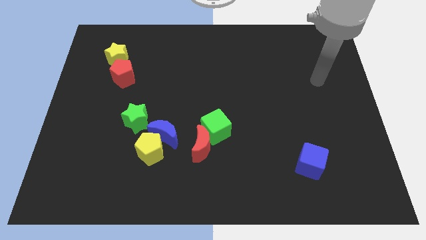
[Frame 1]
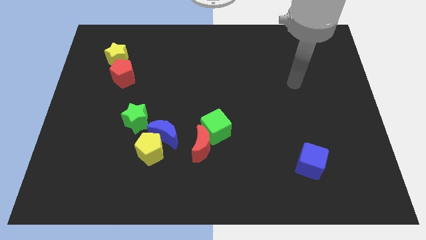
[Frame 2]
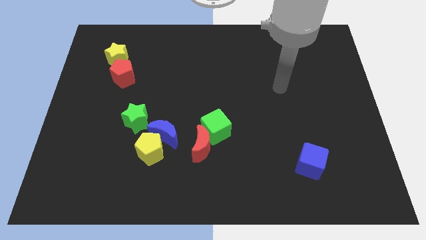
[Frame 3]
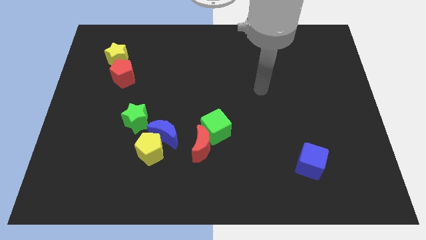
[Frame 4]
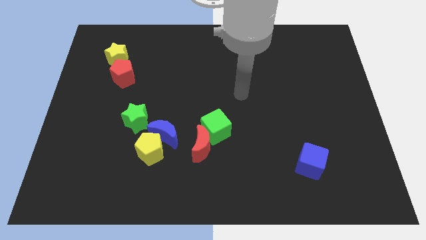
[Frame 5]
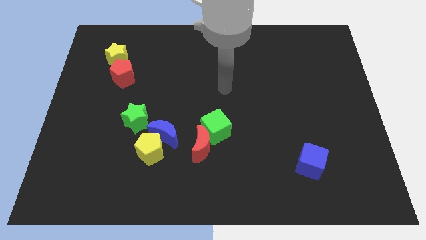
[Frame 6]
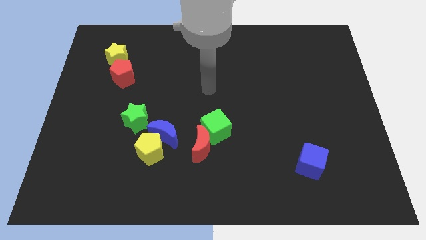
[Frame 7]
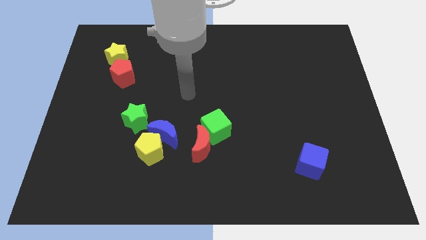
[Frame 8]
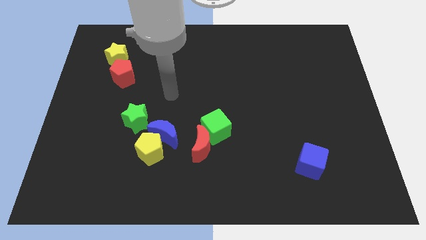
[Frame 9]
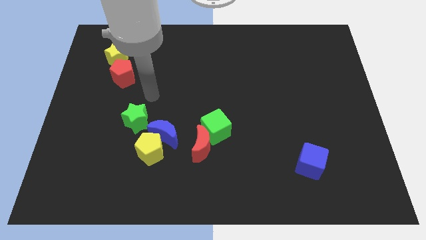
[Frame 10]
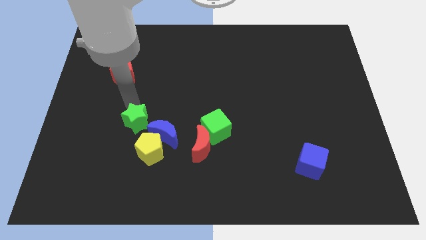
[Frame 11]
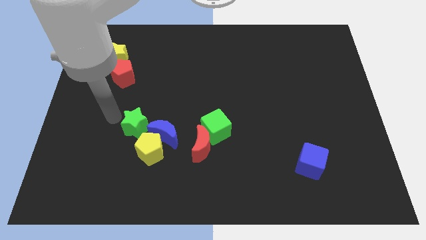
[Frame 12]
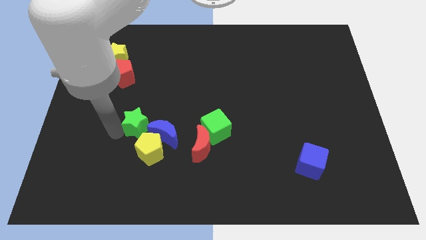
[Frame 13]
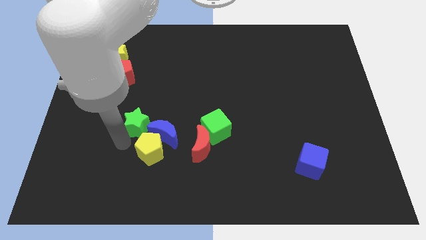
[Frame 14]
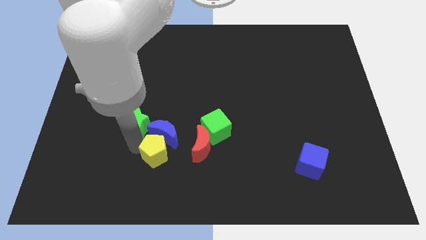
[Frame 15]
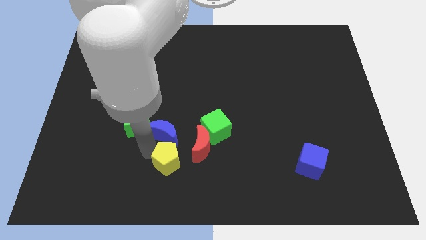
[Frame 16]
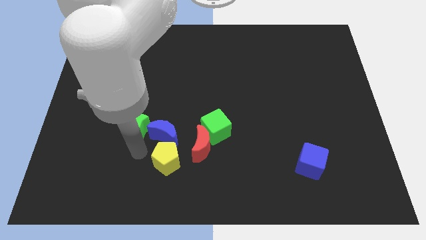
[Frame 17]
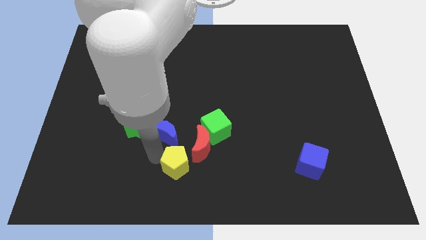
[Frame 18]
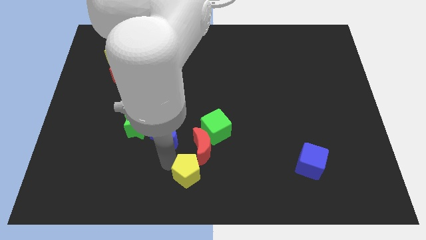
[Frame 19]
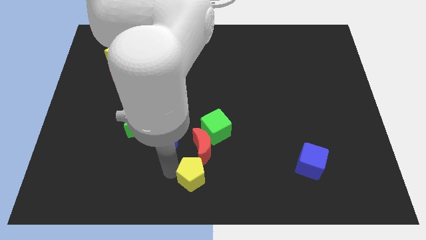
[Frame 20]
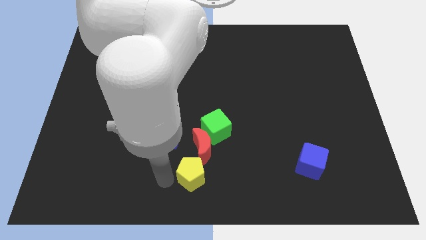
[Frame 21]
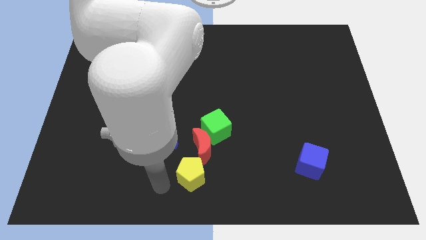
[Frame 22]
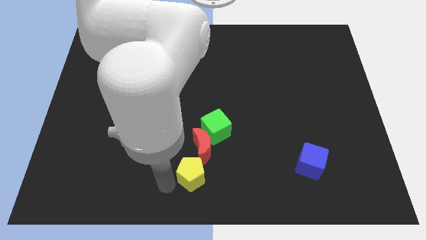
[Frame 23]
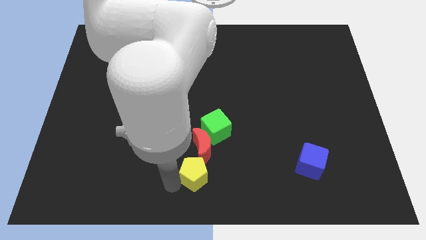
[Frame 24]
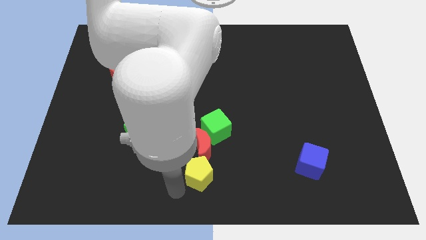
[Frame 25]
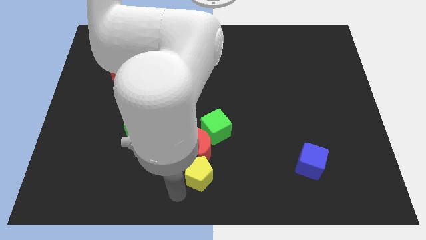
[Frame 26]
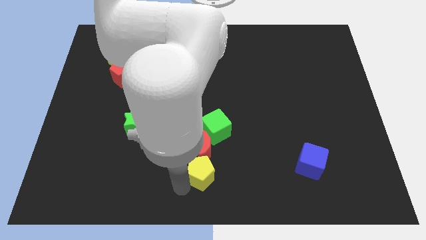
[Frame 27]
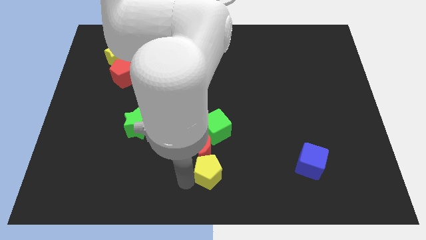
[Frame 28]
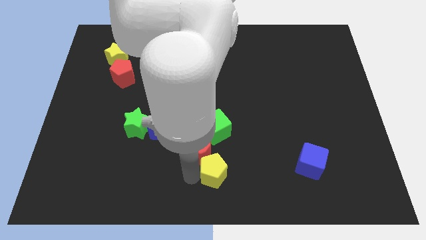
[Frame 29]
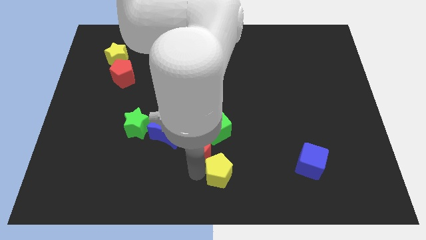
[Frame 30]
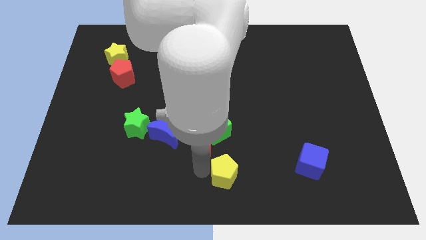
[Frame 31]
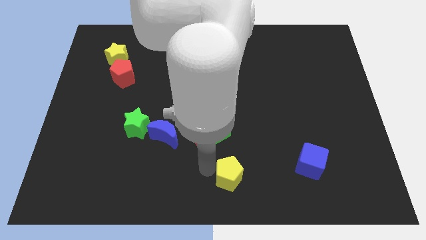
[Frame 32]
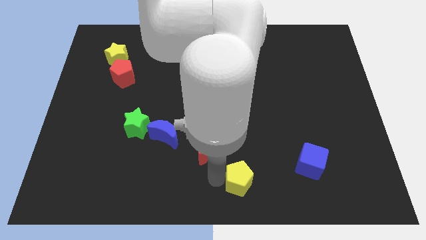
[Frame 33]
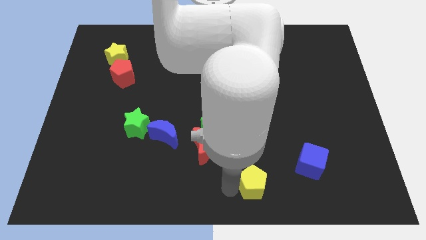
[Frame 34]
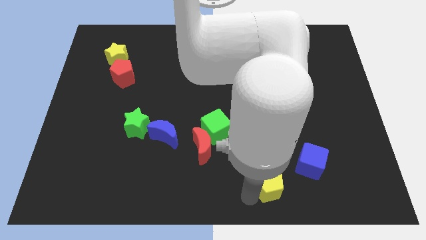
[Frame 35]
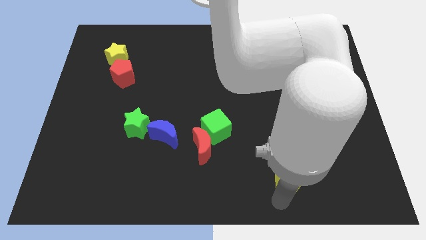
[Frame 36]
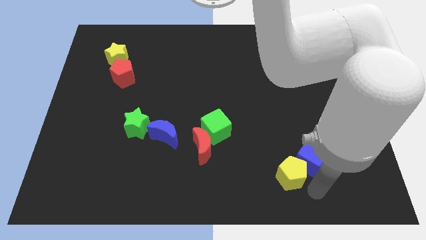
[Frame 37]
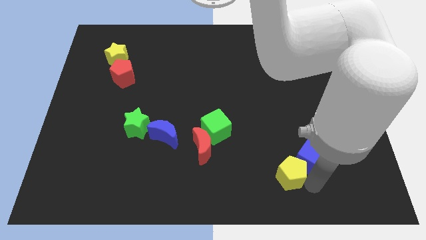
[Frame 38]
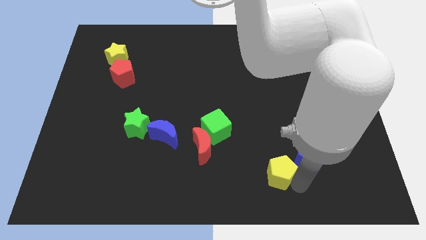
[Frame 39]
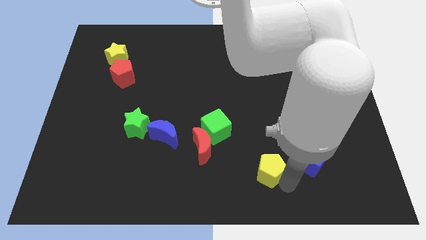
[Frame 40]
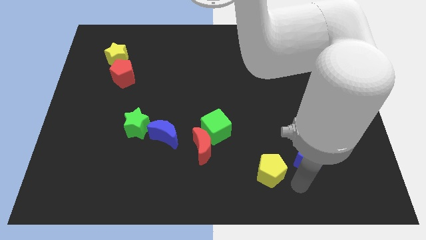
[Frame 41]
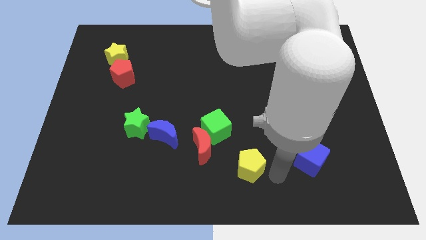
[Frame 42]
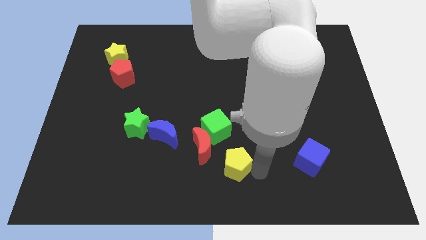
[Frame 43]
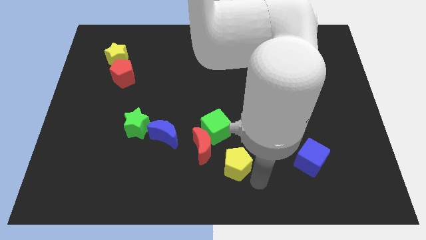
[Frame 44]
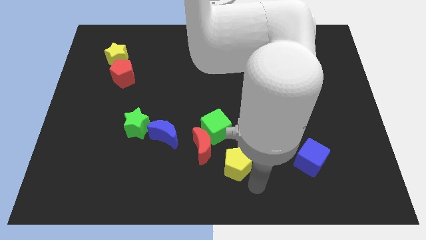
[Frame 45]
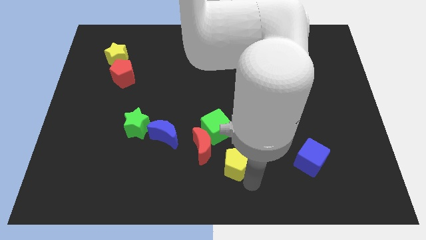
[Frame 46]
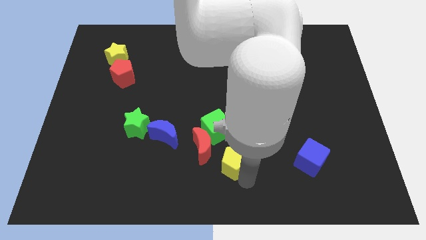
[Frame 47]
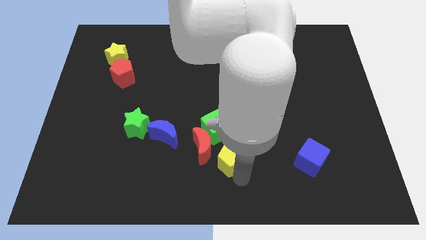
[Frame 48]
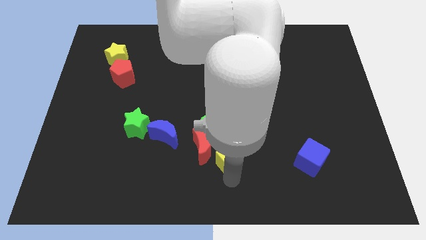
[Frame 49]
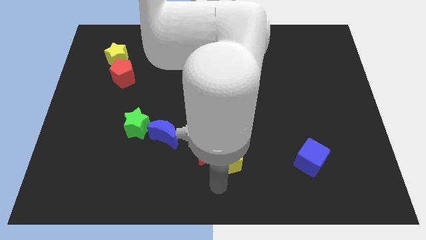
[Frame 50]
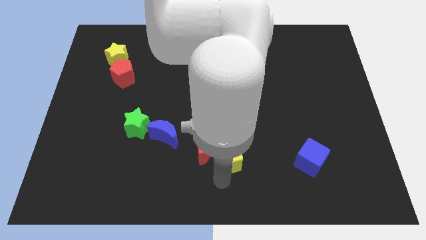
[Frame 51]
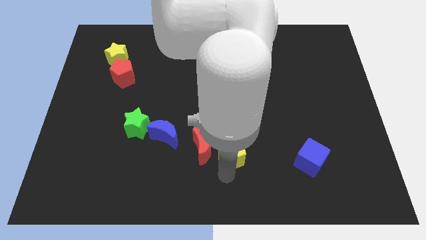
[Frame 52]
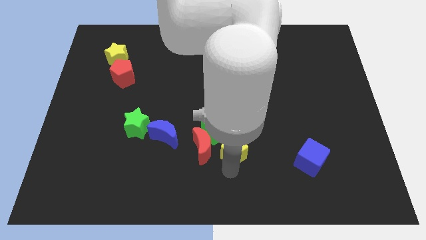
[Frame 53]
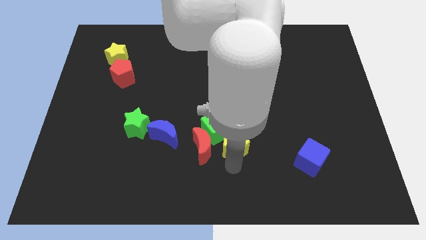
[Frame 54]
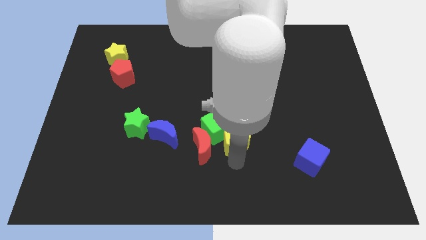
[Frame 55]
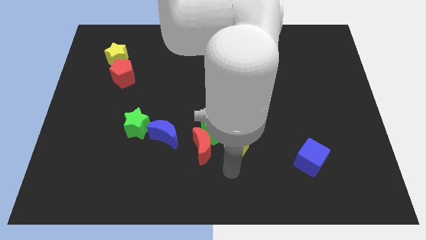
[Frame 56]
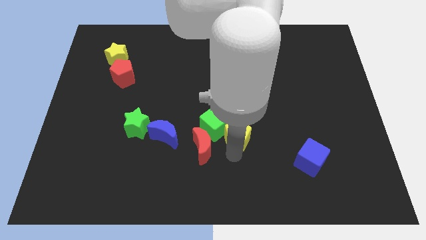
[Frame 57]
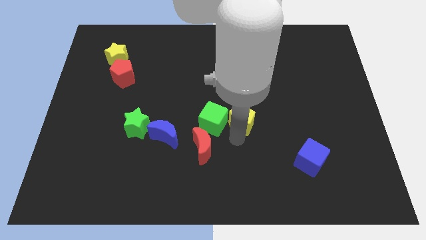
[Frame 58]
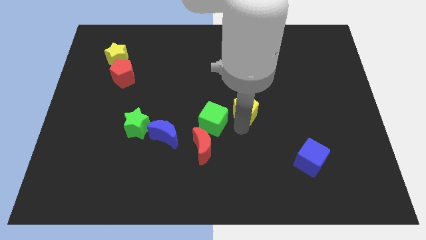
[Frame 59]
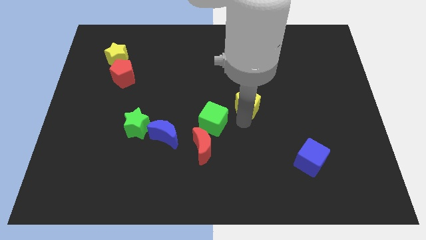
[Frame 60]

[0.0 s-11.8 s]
move the yellow pentagon diagonally upwards and right

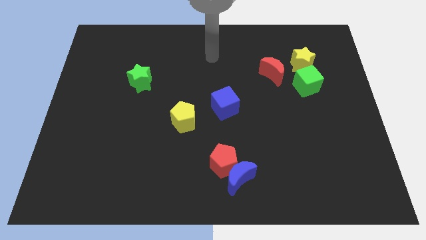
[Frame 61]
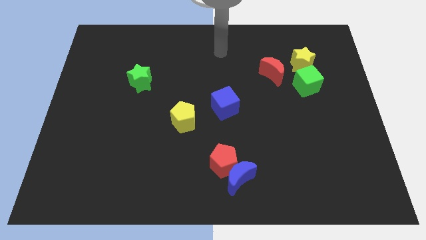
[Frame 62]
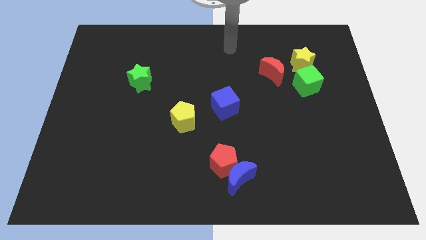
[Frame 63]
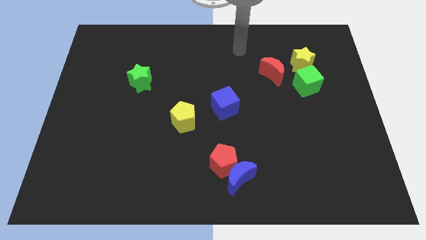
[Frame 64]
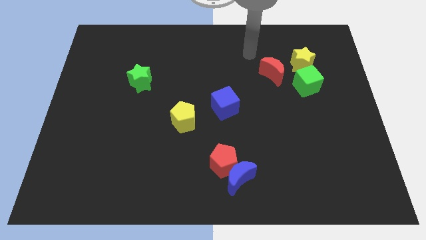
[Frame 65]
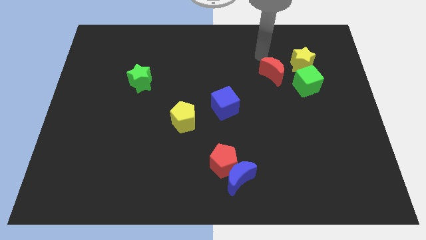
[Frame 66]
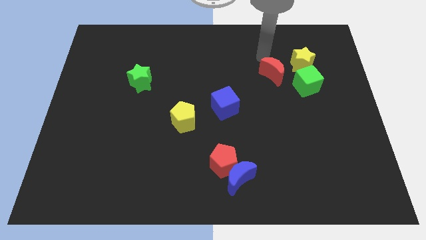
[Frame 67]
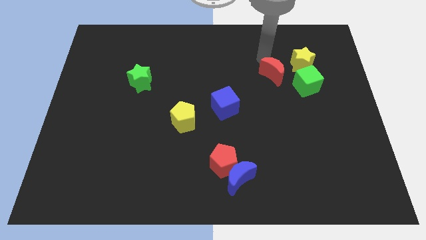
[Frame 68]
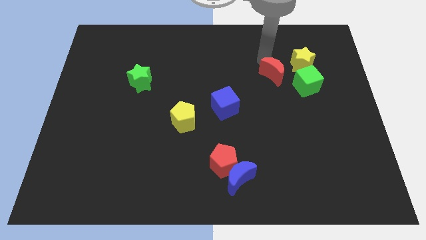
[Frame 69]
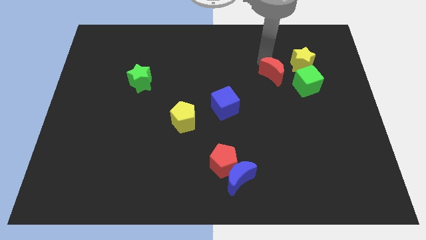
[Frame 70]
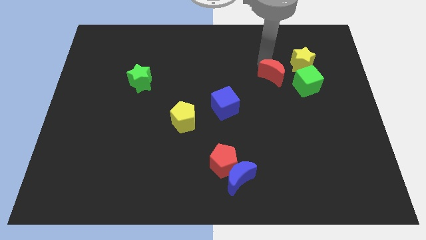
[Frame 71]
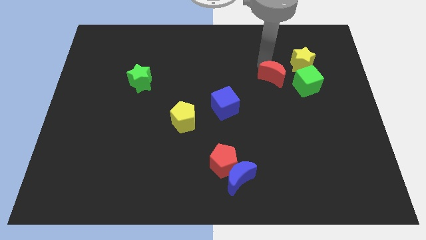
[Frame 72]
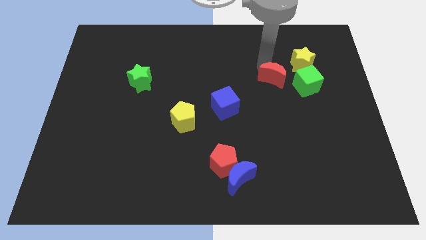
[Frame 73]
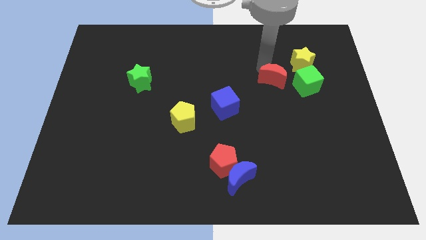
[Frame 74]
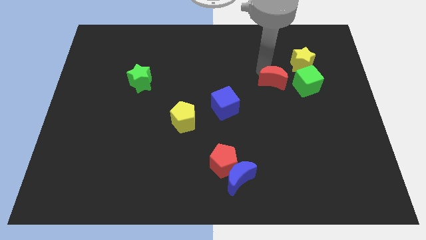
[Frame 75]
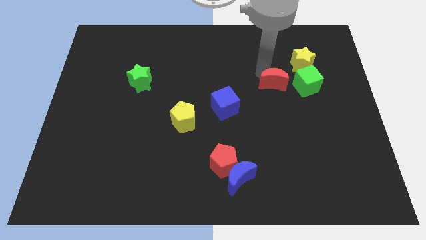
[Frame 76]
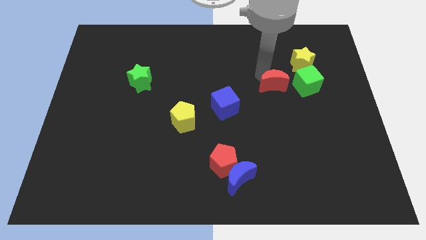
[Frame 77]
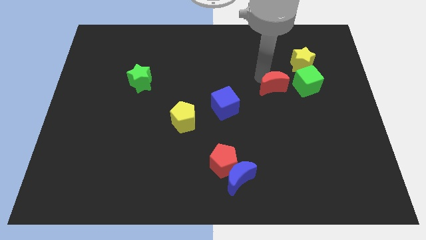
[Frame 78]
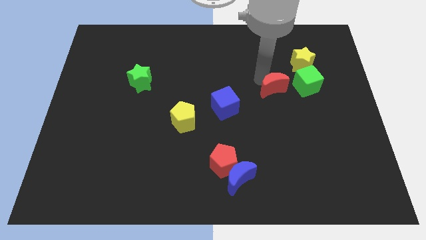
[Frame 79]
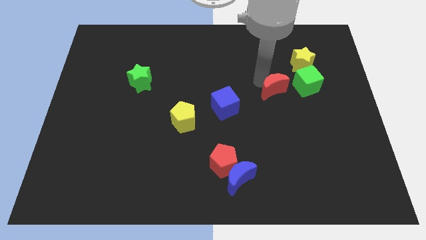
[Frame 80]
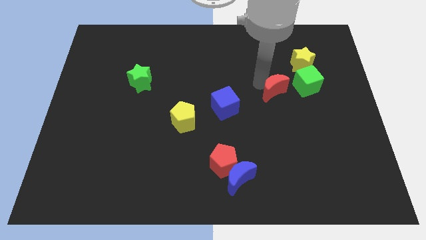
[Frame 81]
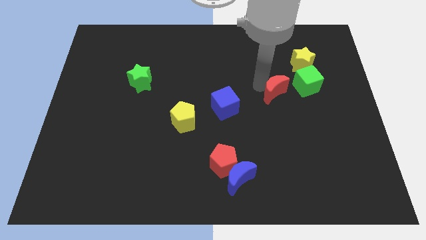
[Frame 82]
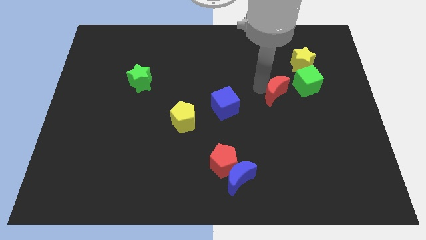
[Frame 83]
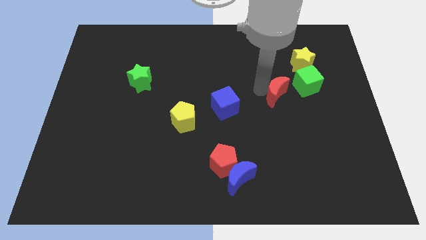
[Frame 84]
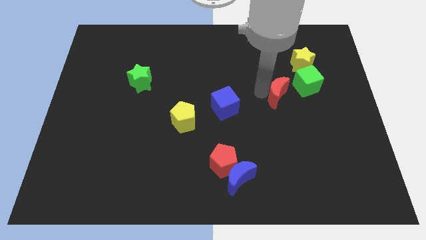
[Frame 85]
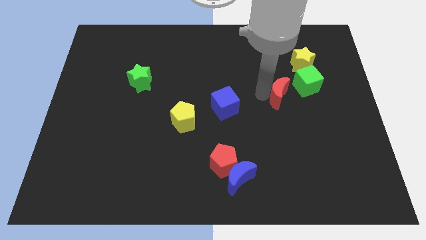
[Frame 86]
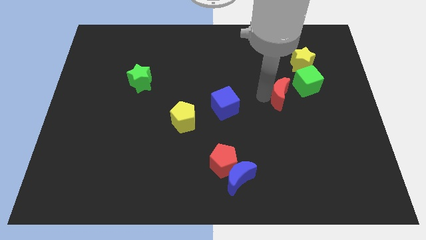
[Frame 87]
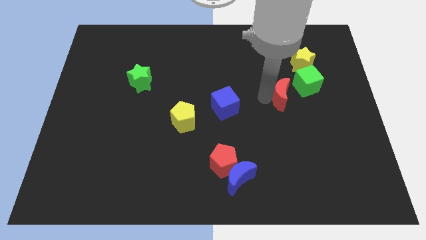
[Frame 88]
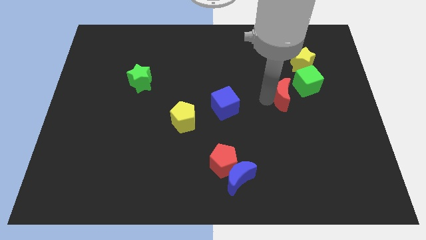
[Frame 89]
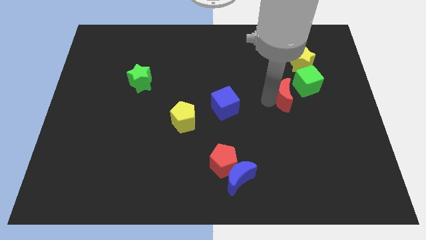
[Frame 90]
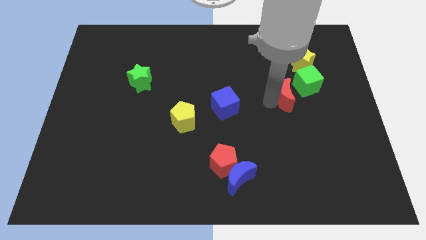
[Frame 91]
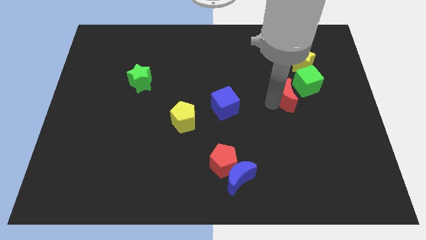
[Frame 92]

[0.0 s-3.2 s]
slide the red moon down and right a bit
